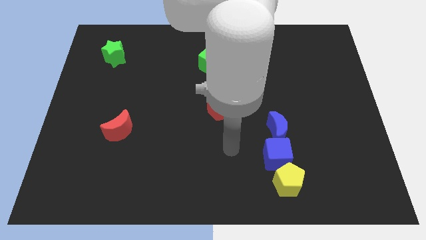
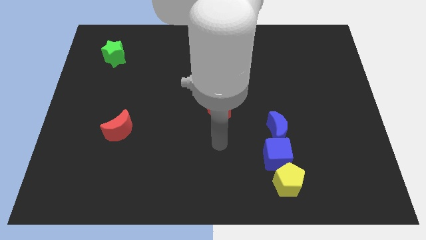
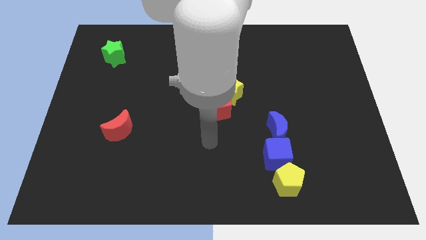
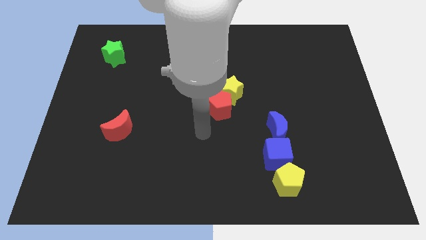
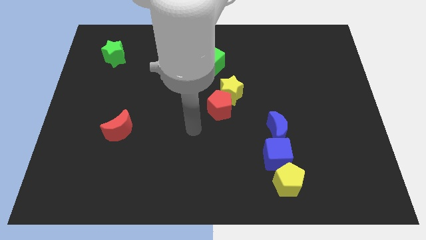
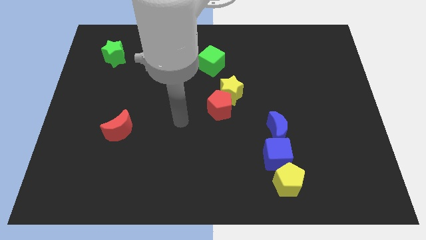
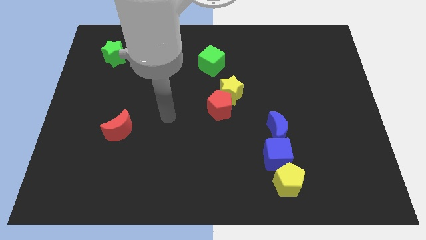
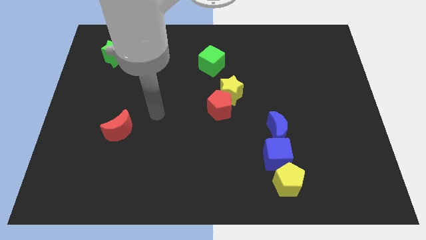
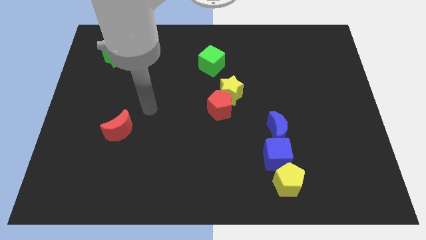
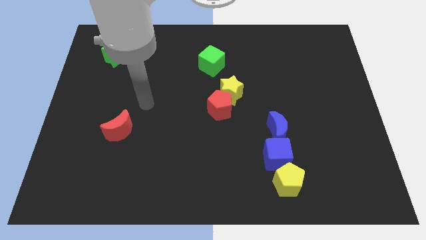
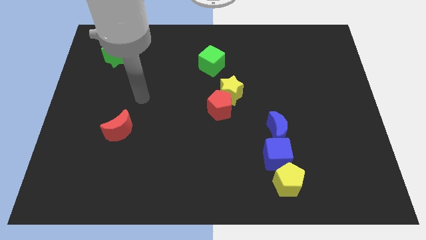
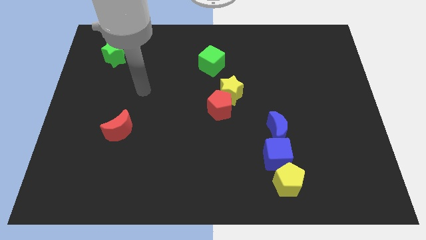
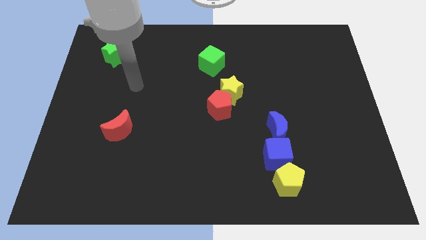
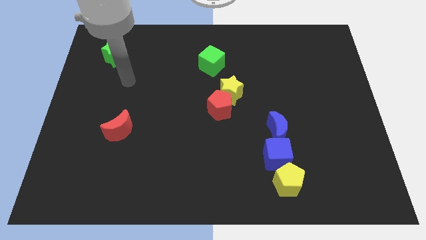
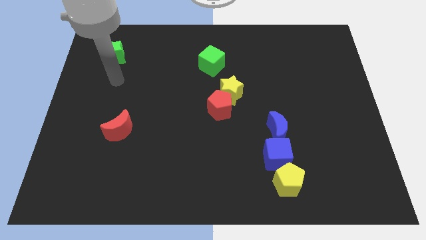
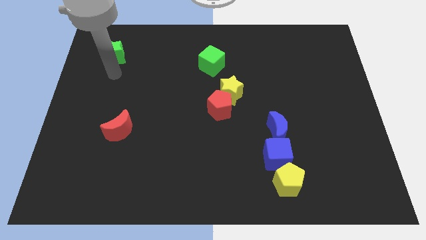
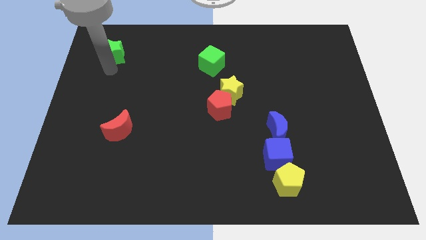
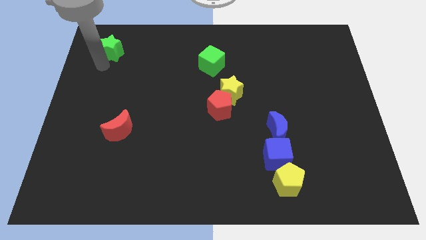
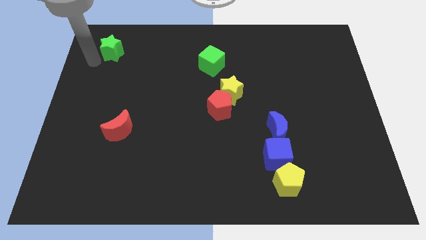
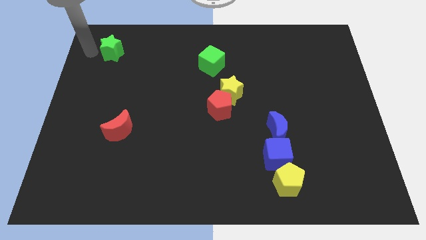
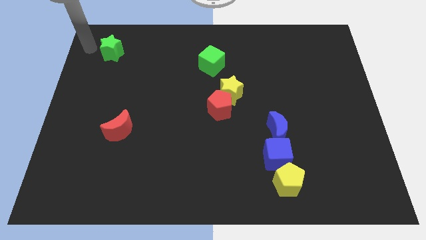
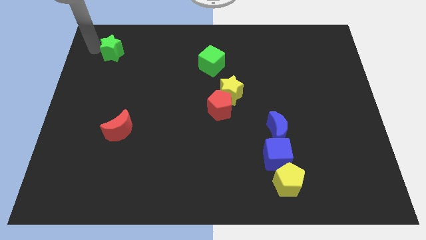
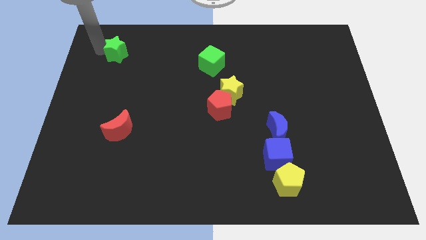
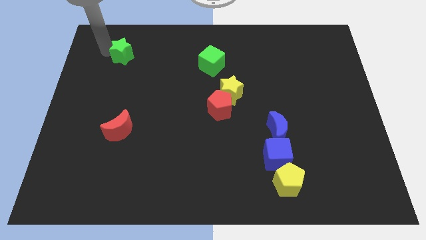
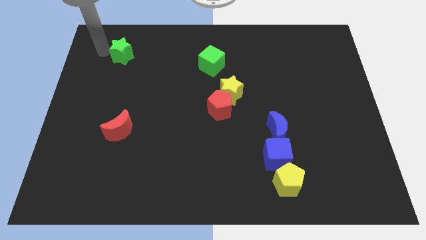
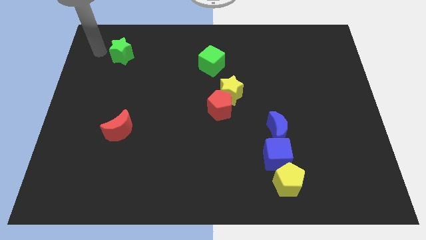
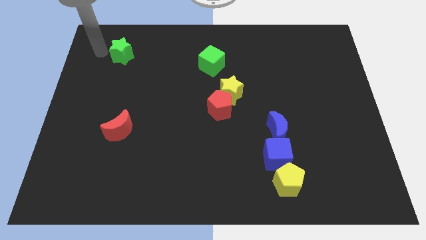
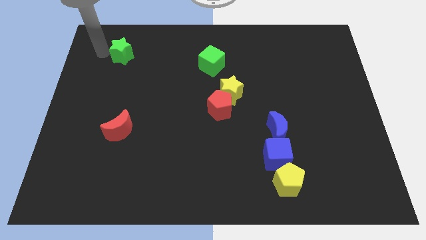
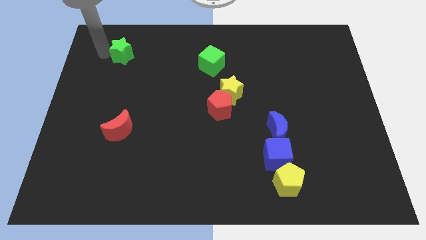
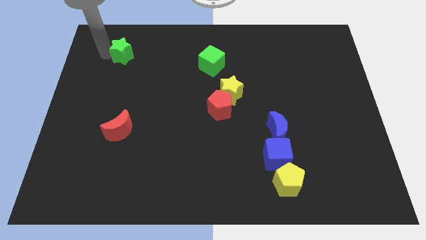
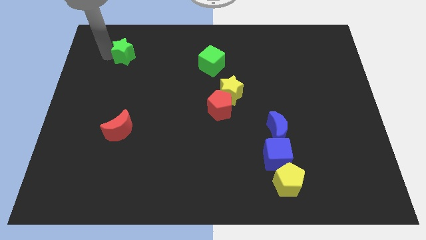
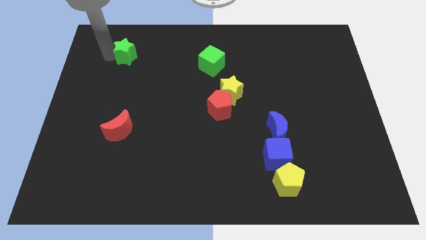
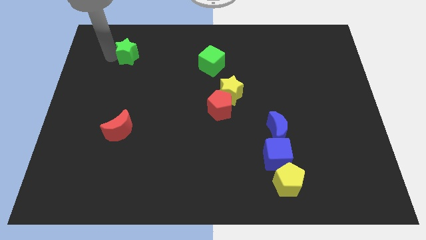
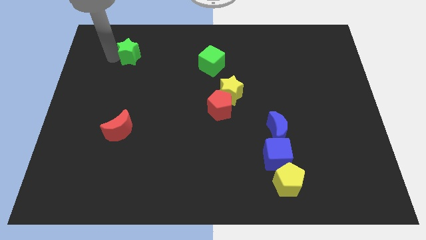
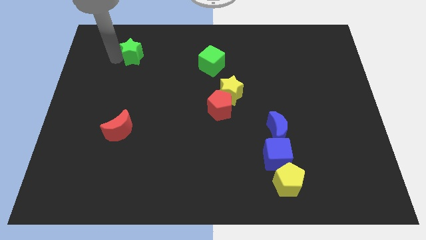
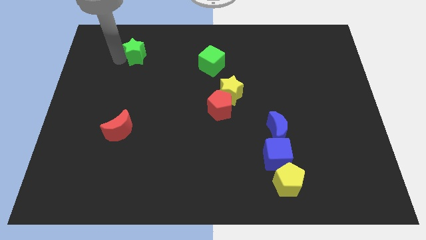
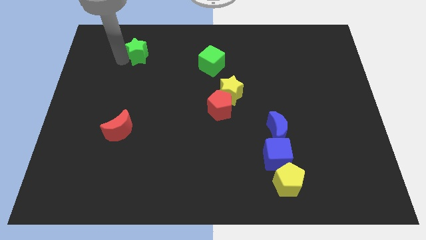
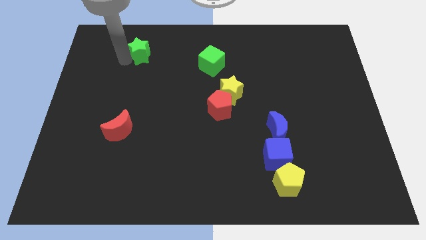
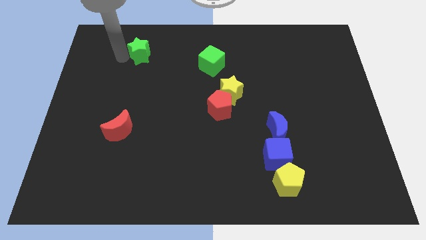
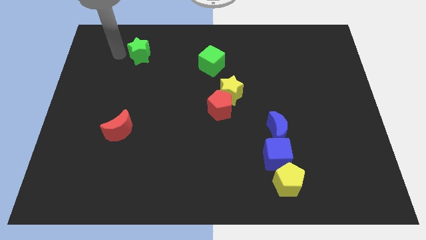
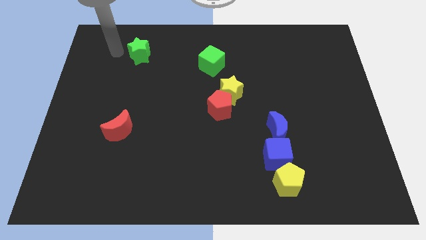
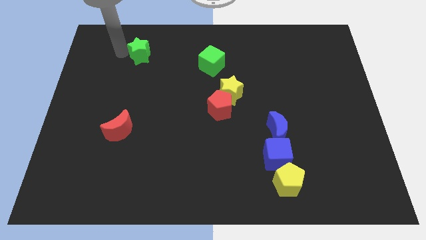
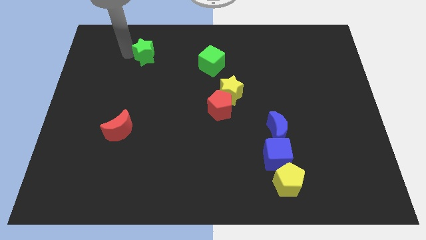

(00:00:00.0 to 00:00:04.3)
slightly move the green star to the right

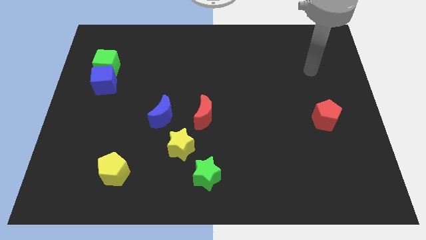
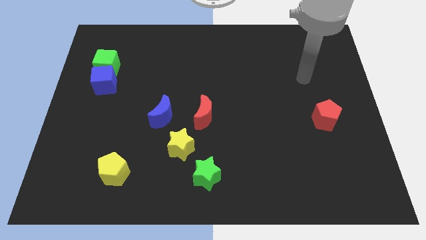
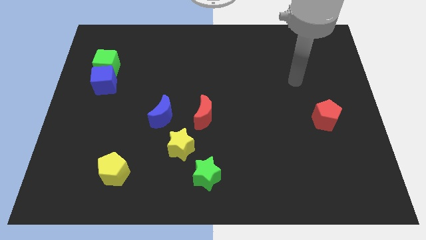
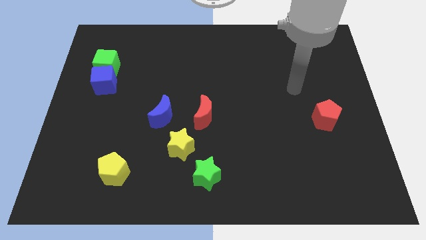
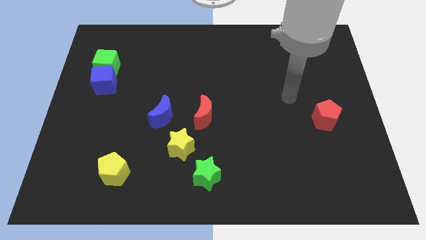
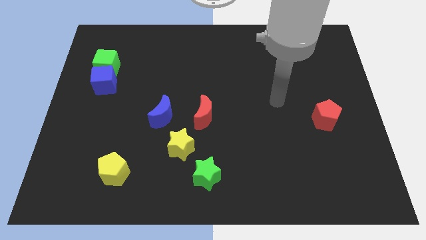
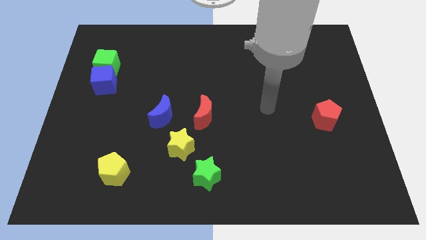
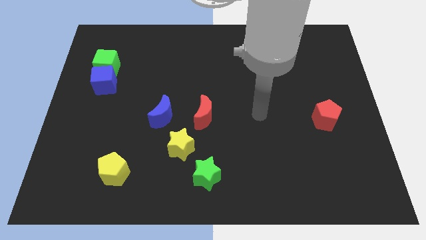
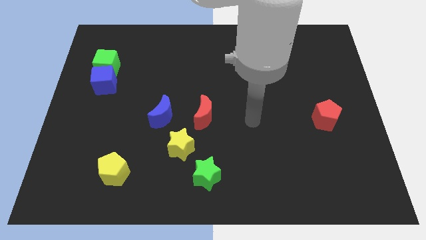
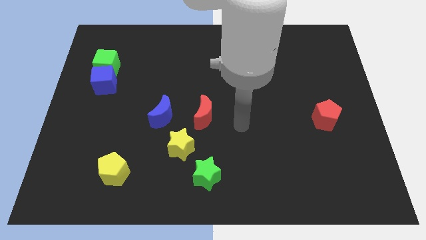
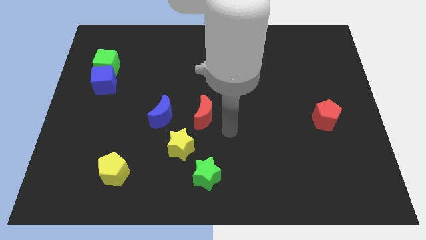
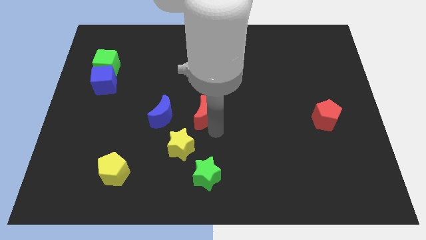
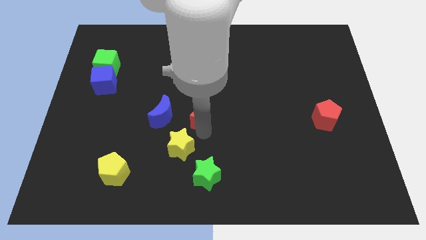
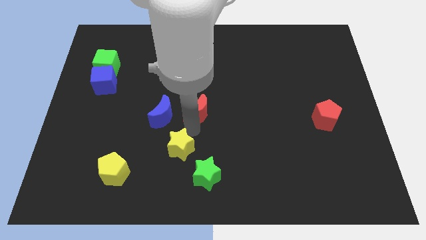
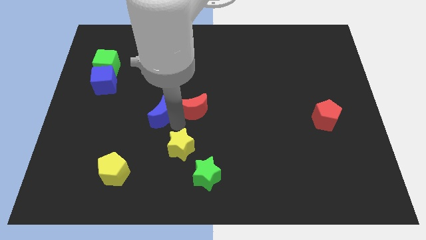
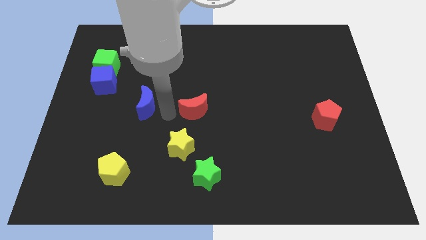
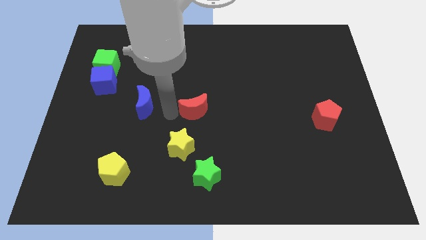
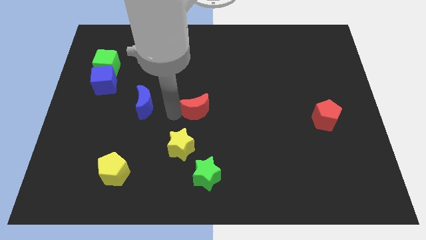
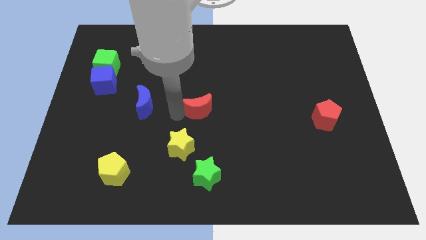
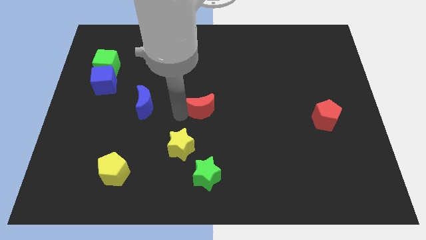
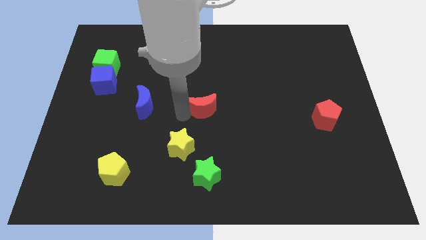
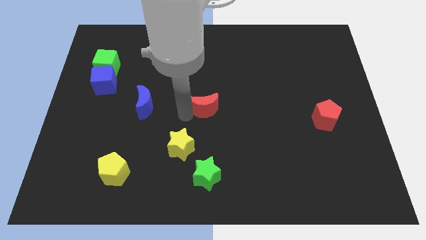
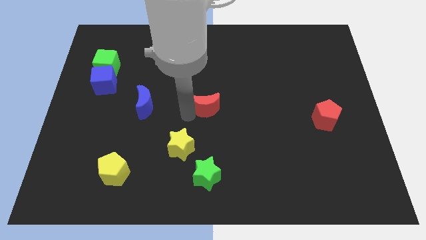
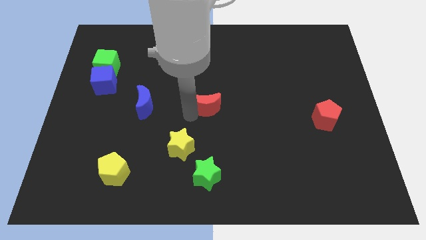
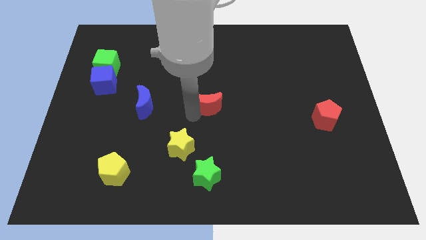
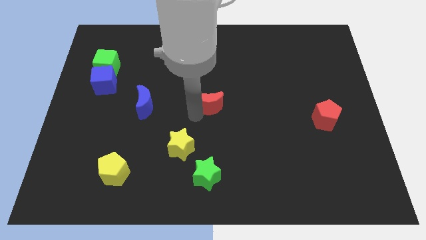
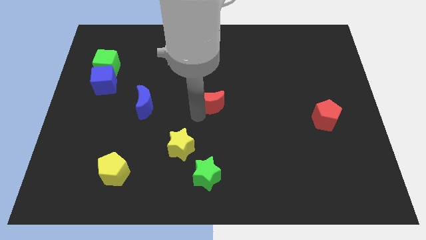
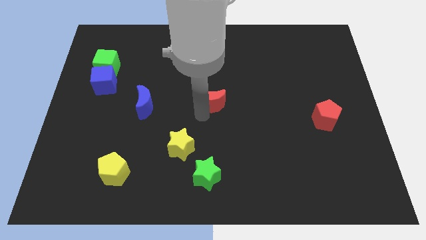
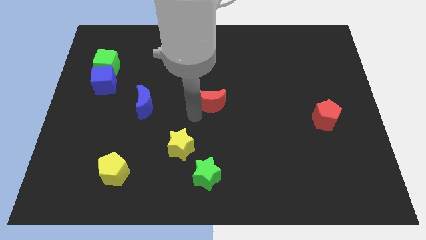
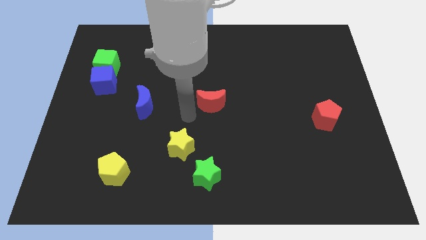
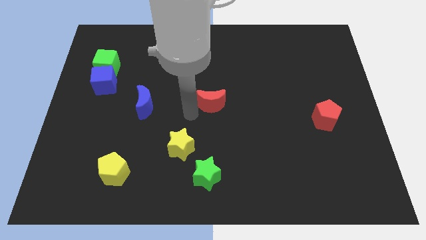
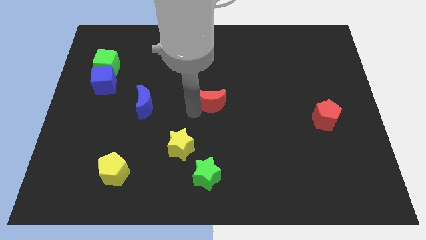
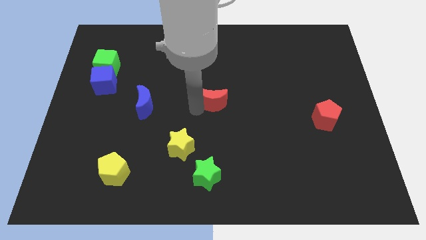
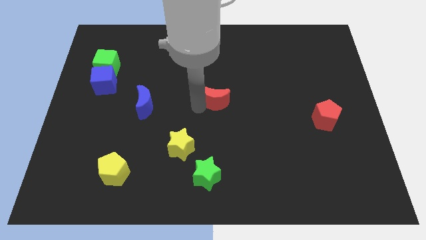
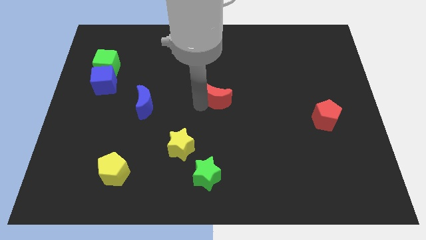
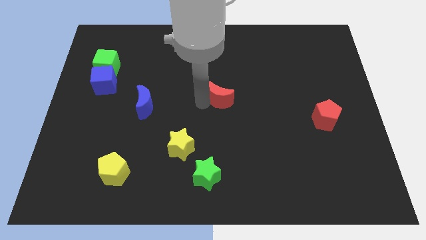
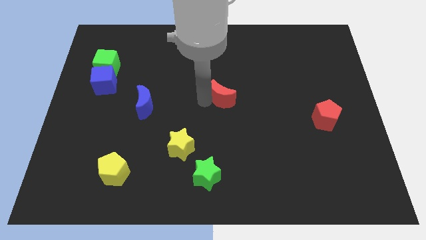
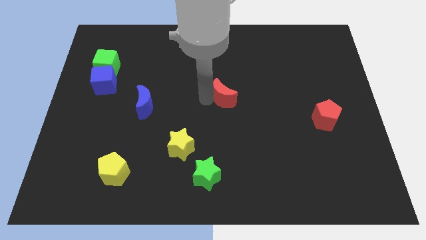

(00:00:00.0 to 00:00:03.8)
slightly slide the red moon diagonally upwards and to the right

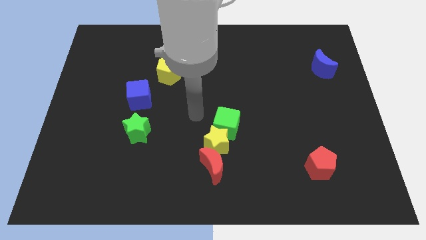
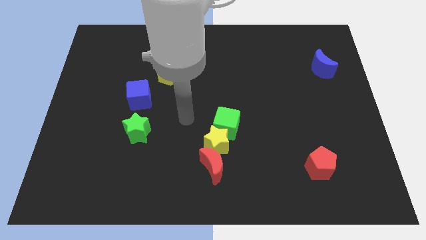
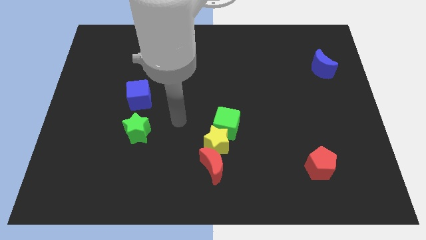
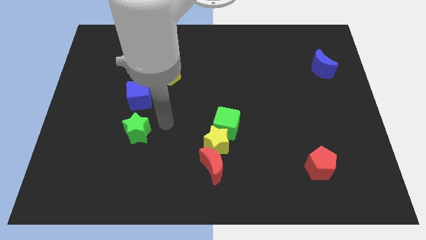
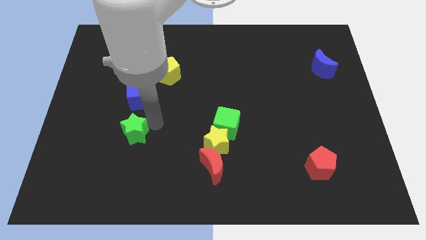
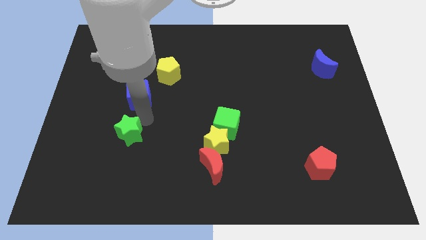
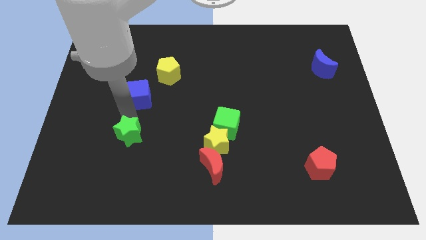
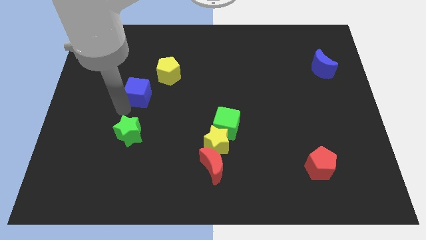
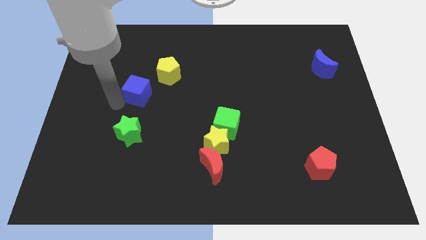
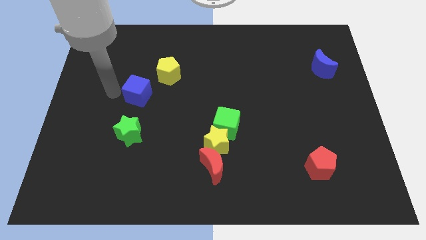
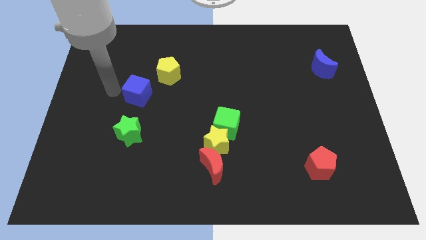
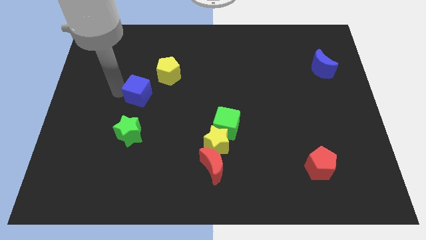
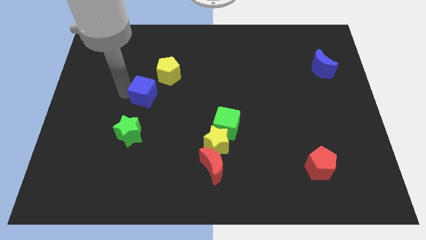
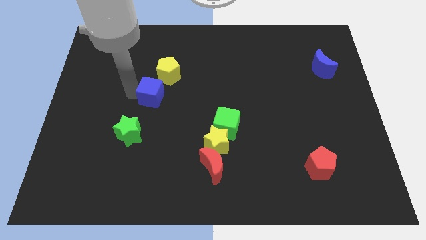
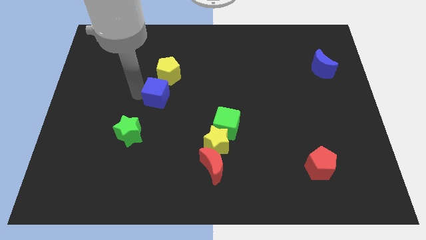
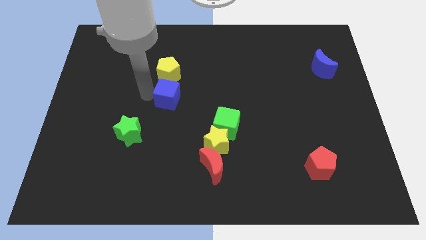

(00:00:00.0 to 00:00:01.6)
slightly slide the blue cube to the right
